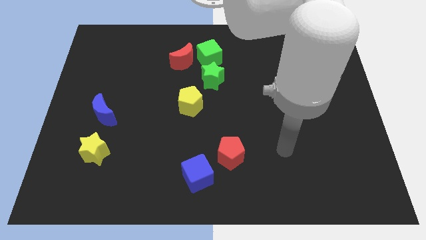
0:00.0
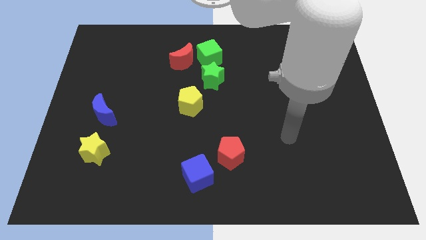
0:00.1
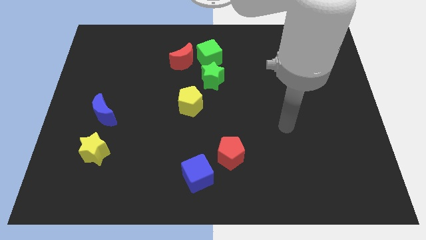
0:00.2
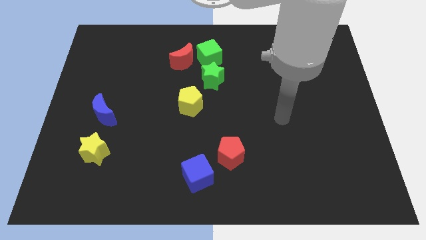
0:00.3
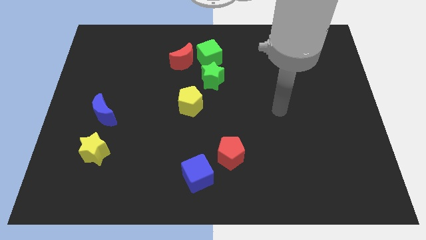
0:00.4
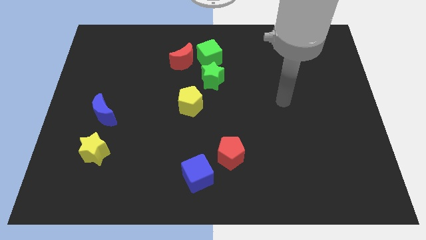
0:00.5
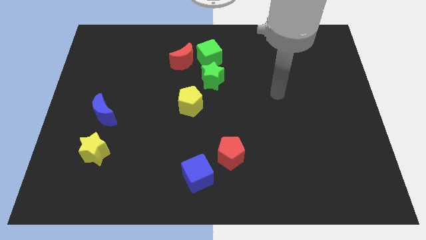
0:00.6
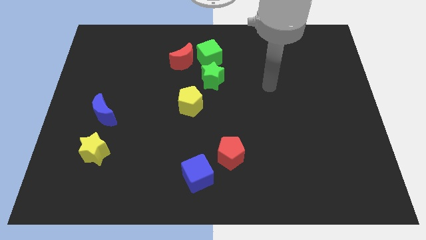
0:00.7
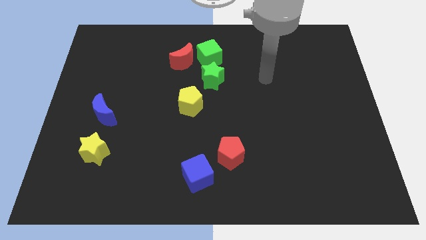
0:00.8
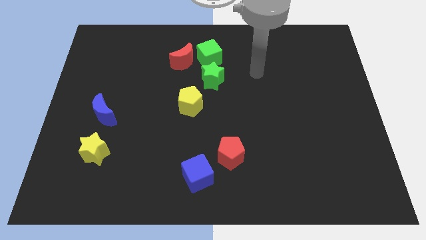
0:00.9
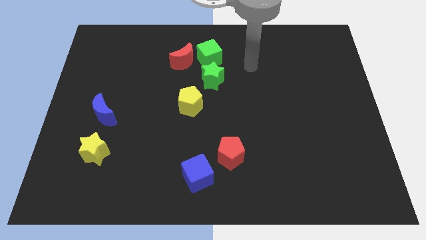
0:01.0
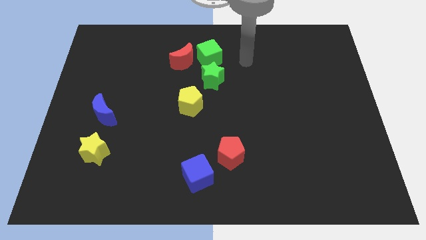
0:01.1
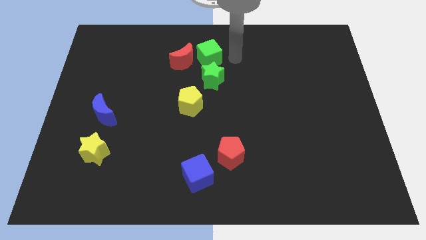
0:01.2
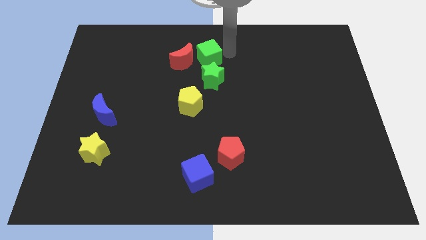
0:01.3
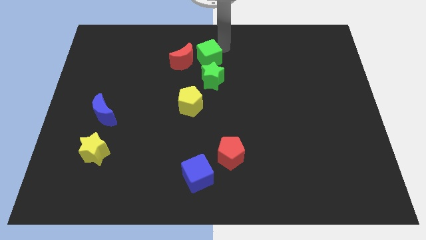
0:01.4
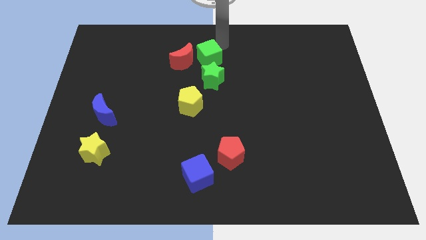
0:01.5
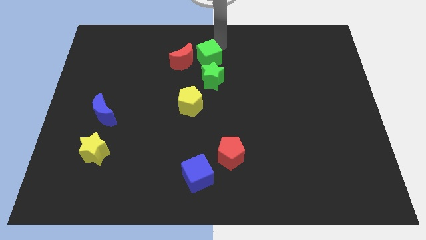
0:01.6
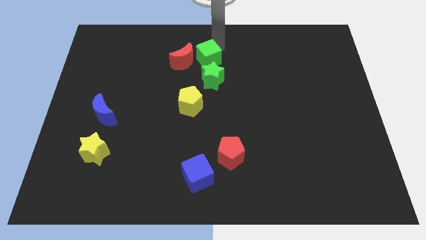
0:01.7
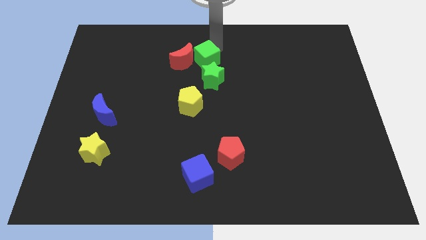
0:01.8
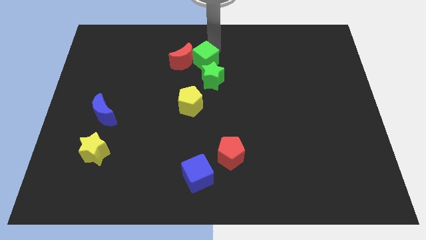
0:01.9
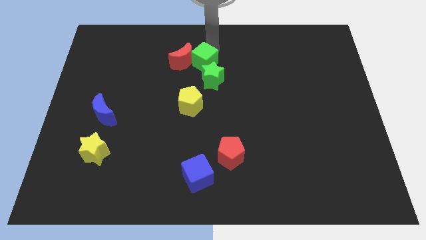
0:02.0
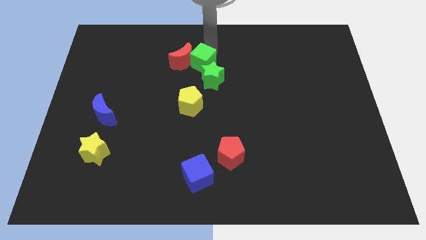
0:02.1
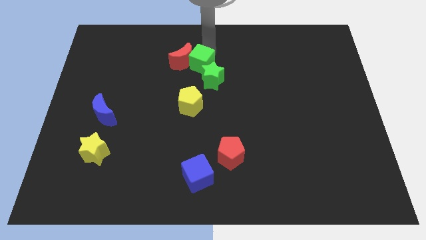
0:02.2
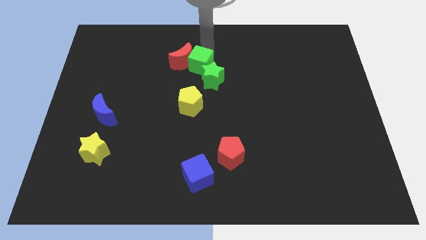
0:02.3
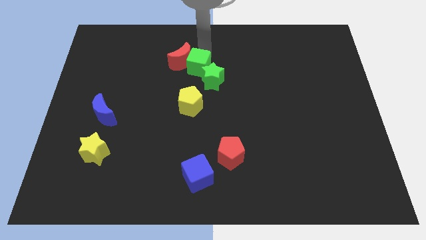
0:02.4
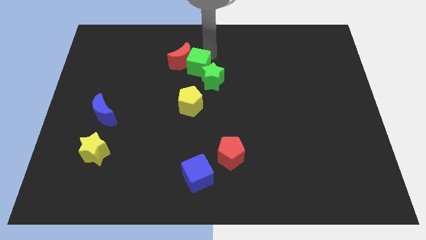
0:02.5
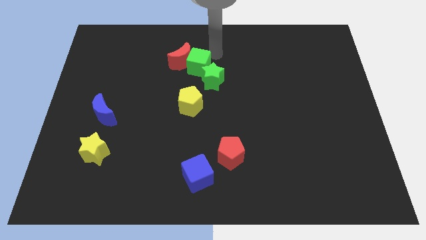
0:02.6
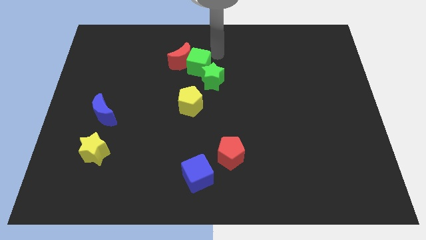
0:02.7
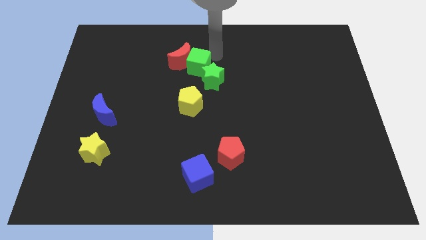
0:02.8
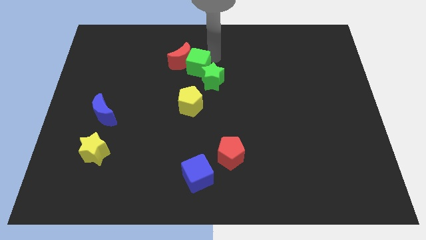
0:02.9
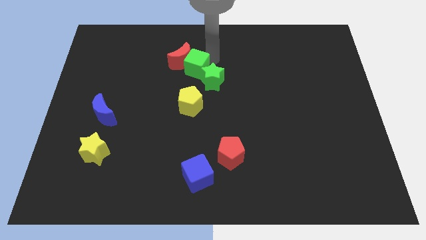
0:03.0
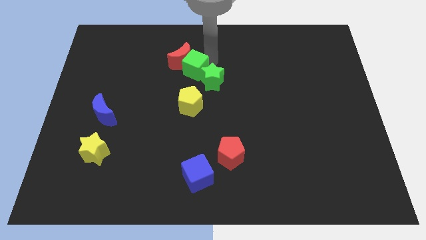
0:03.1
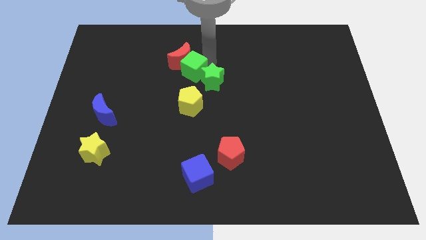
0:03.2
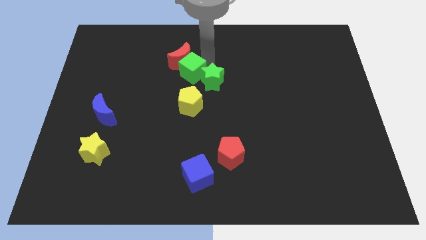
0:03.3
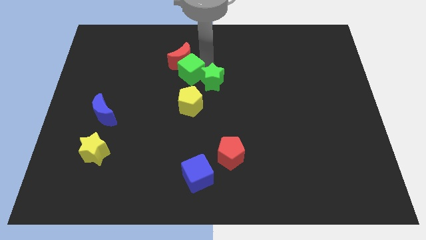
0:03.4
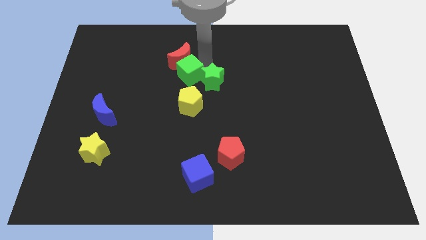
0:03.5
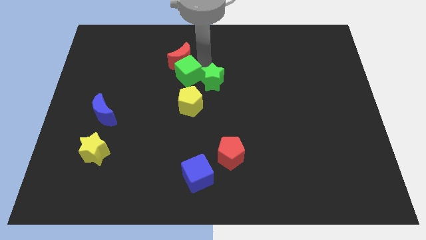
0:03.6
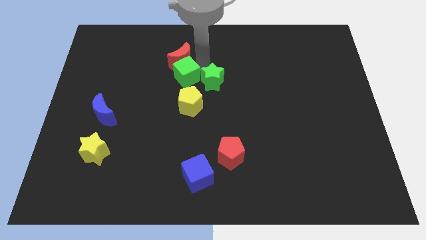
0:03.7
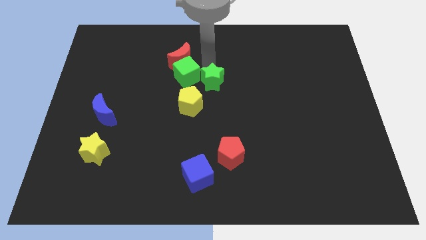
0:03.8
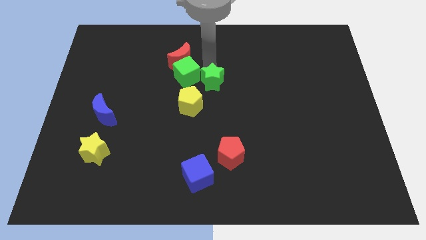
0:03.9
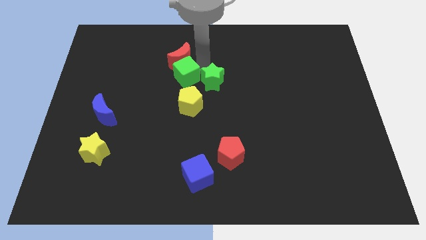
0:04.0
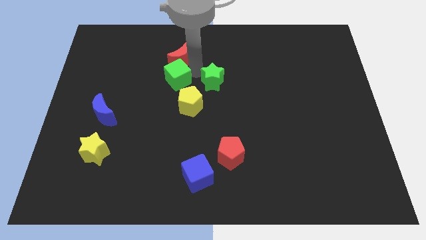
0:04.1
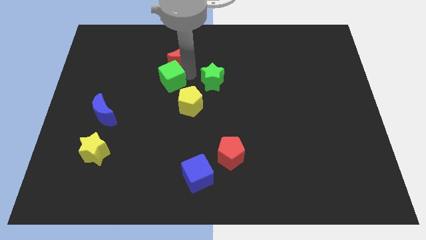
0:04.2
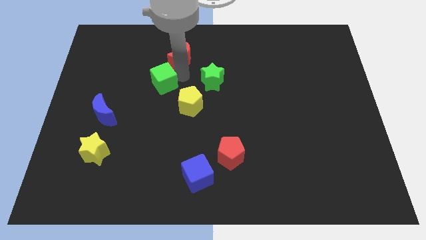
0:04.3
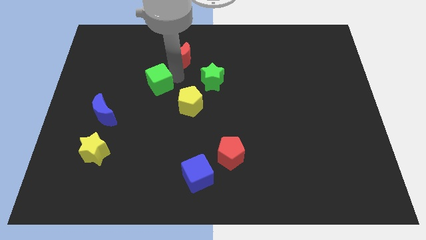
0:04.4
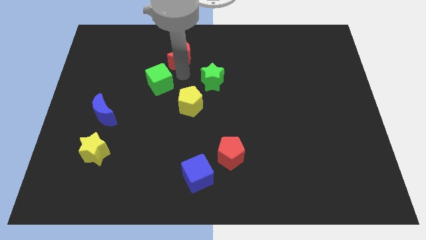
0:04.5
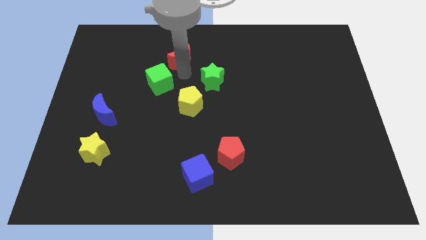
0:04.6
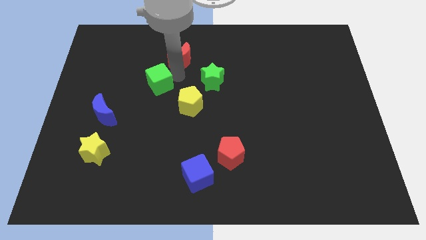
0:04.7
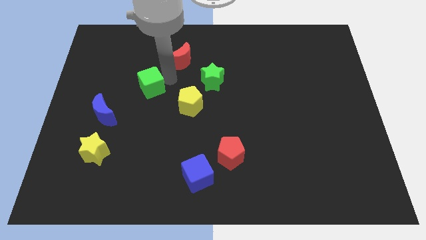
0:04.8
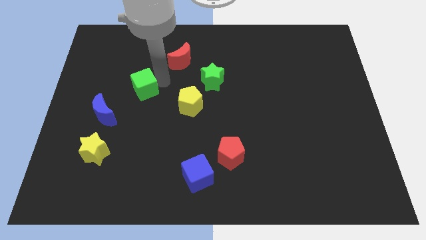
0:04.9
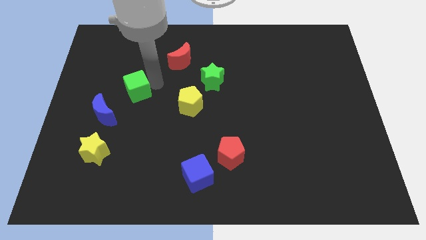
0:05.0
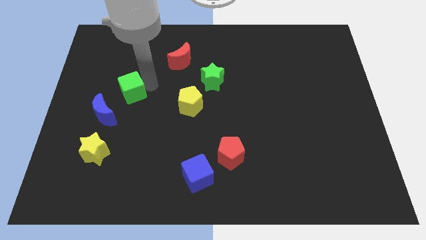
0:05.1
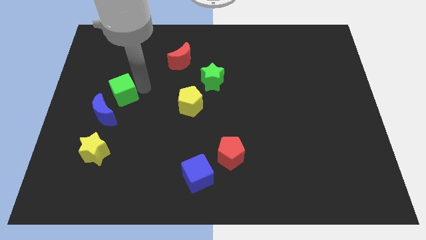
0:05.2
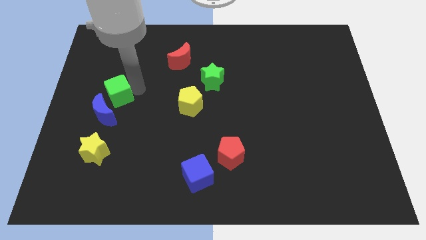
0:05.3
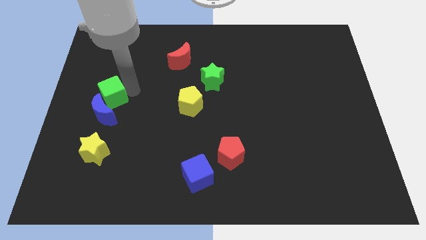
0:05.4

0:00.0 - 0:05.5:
move the green cube to the top side of the yellow star
